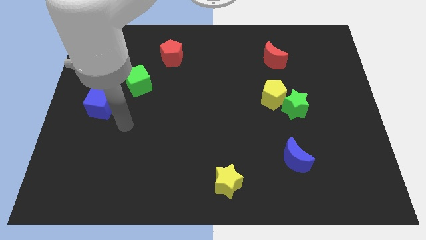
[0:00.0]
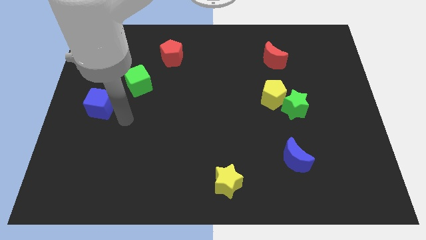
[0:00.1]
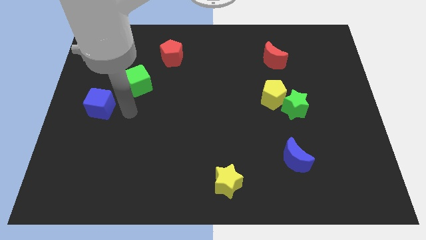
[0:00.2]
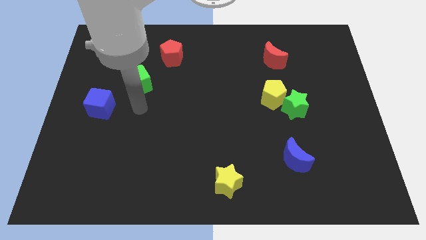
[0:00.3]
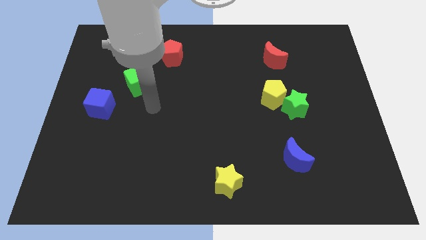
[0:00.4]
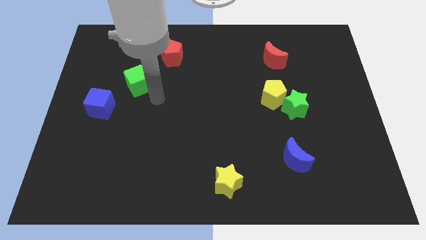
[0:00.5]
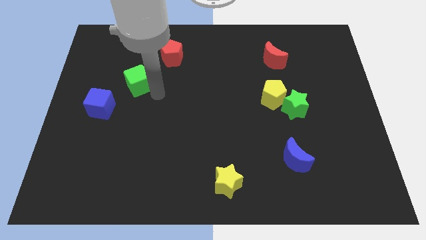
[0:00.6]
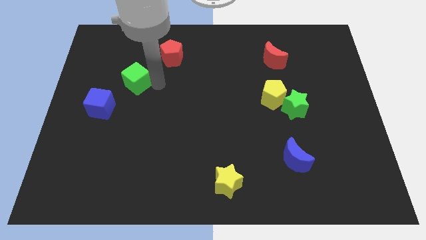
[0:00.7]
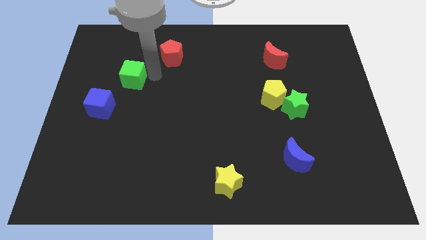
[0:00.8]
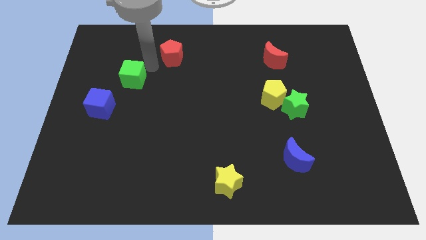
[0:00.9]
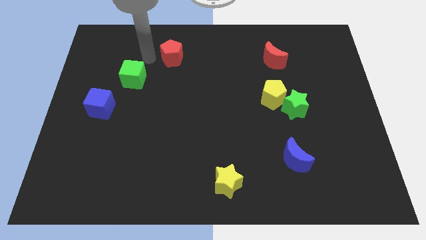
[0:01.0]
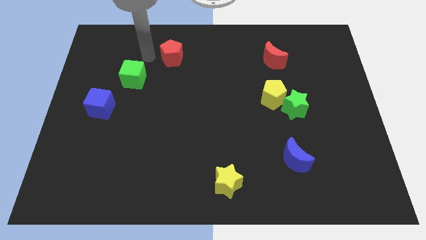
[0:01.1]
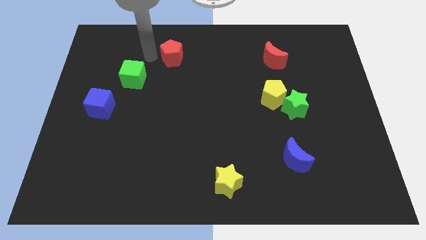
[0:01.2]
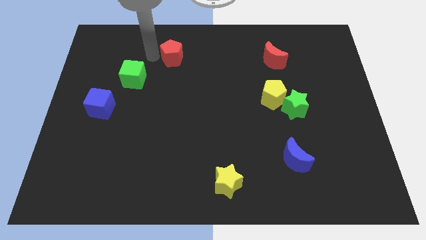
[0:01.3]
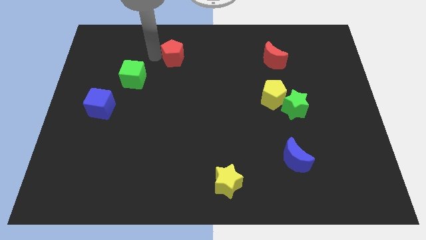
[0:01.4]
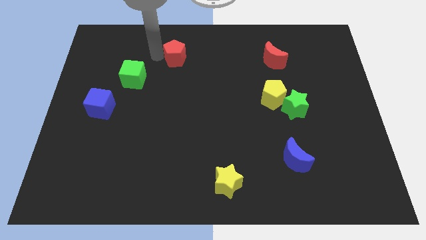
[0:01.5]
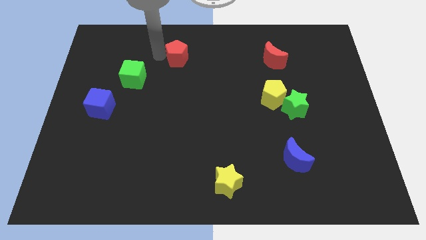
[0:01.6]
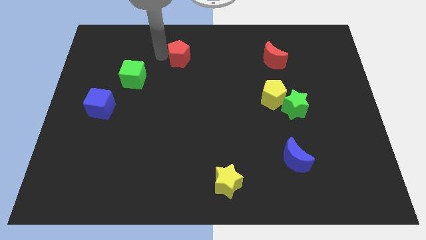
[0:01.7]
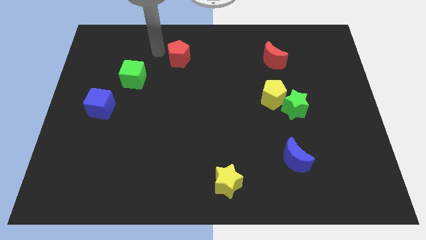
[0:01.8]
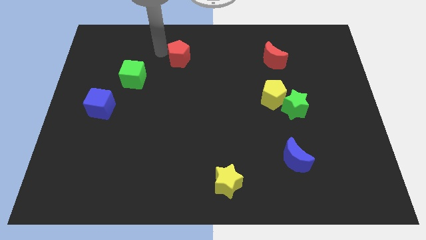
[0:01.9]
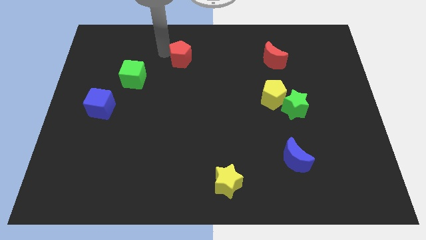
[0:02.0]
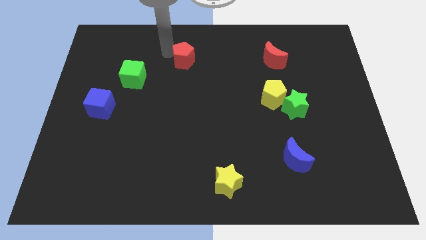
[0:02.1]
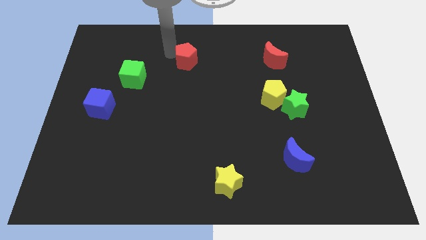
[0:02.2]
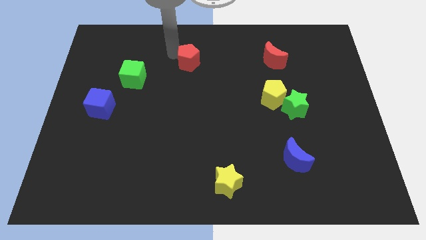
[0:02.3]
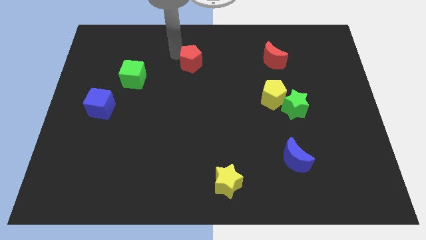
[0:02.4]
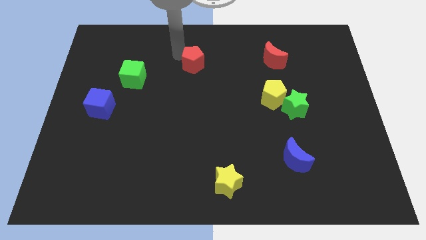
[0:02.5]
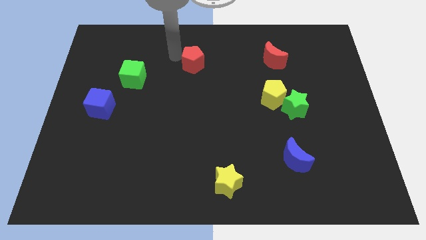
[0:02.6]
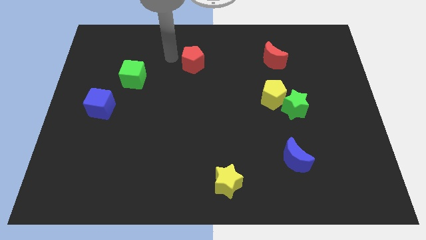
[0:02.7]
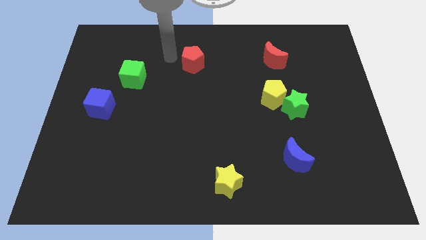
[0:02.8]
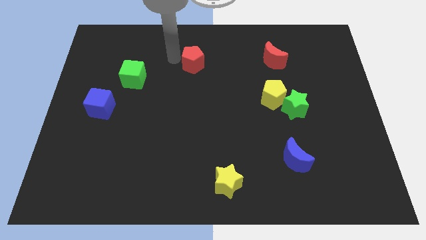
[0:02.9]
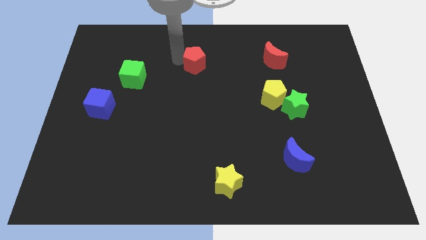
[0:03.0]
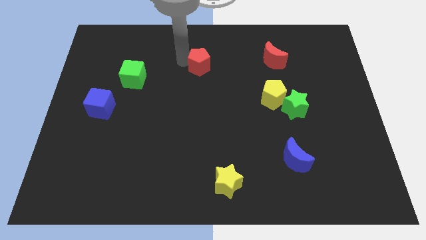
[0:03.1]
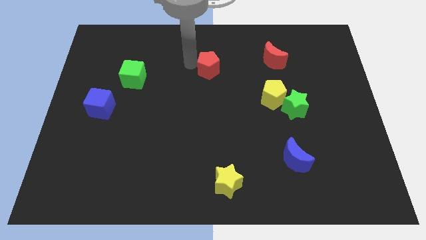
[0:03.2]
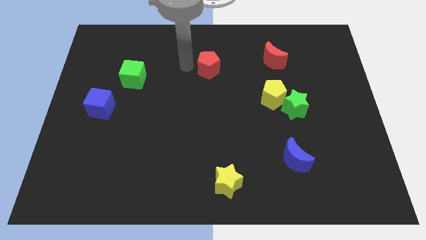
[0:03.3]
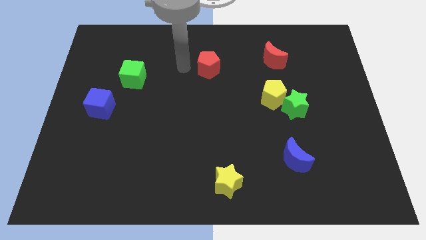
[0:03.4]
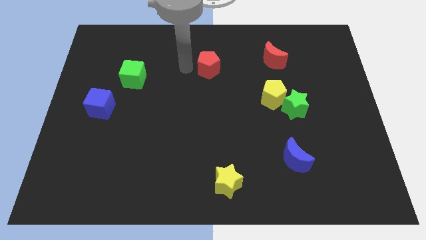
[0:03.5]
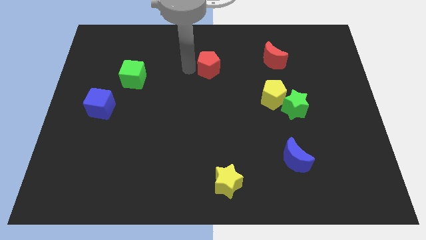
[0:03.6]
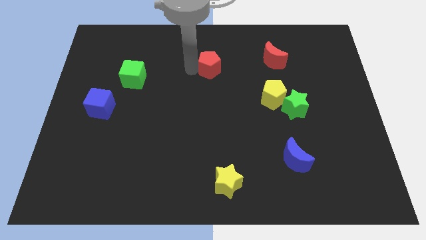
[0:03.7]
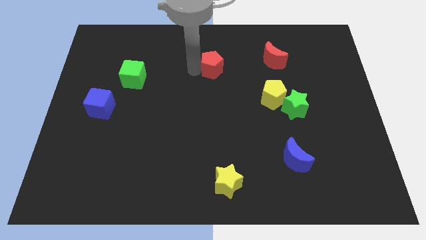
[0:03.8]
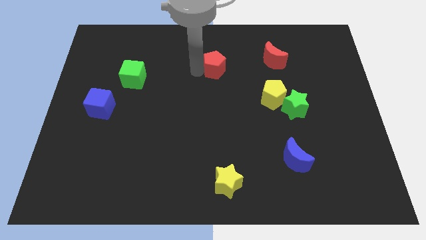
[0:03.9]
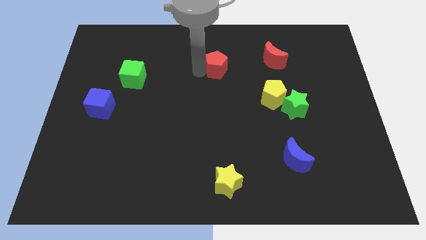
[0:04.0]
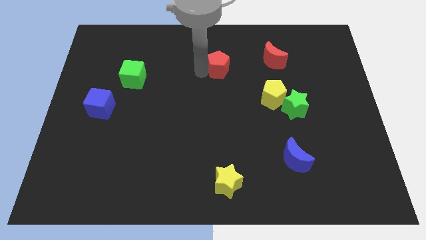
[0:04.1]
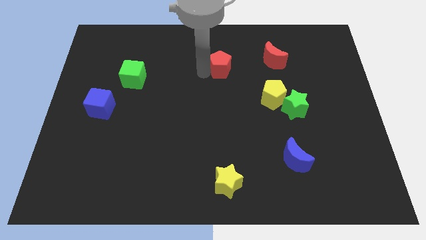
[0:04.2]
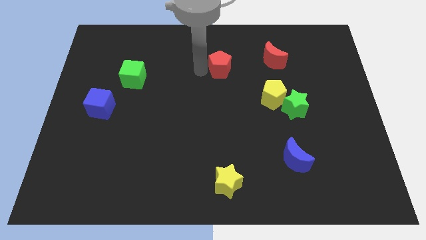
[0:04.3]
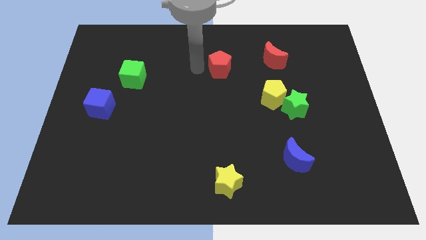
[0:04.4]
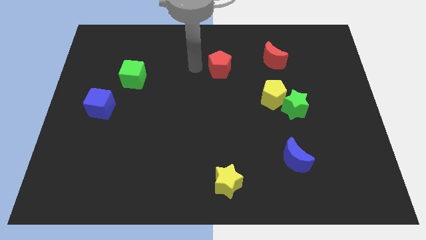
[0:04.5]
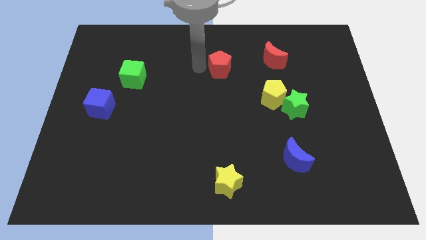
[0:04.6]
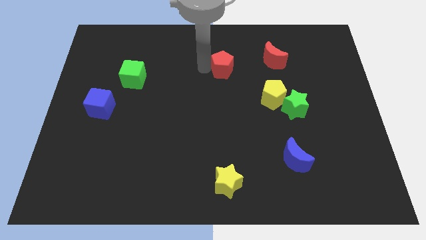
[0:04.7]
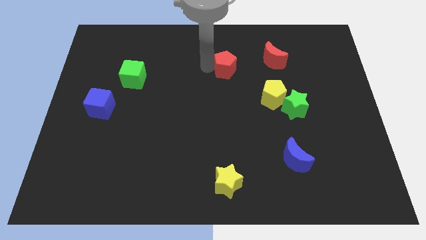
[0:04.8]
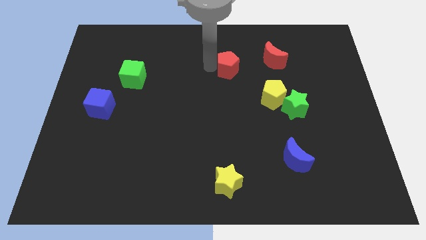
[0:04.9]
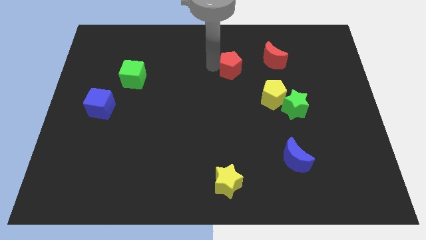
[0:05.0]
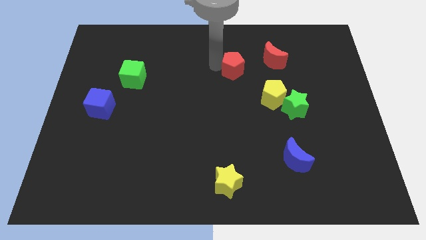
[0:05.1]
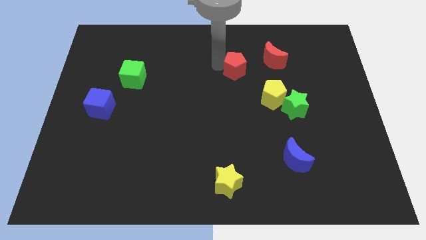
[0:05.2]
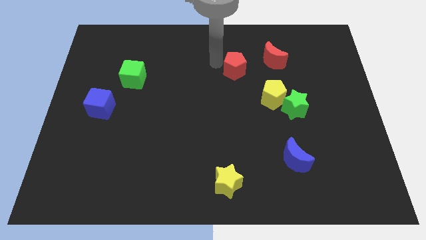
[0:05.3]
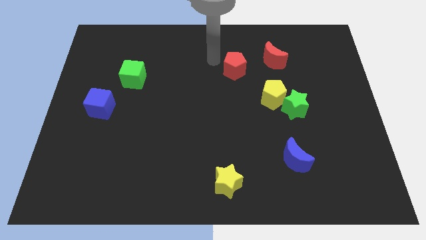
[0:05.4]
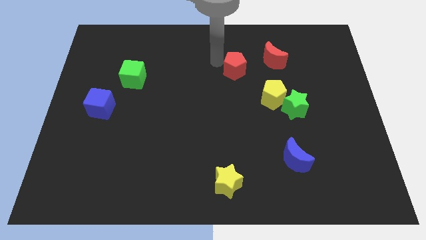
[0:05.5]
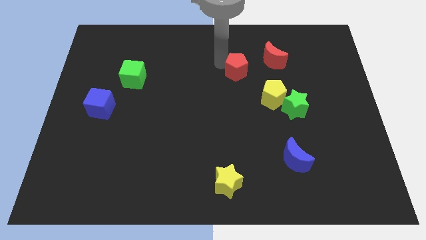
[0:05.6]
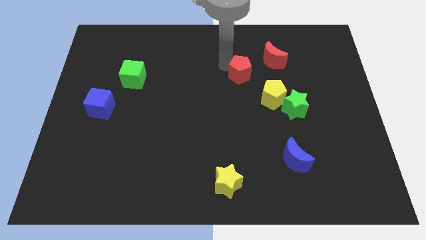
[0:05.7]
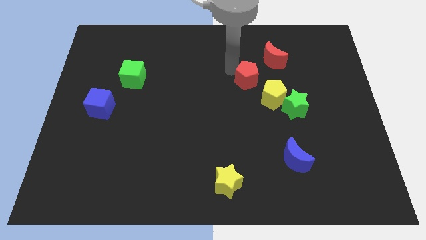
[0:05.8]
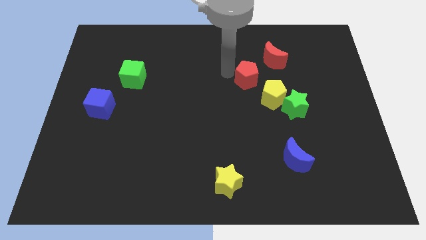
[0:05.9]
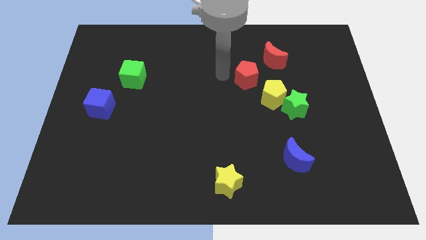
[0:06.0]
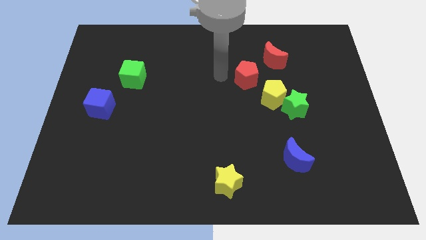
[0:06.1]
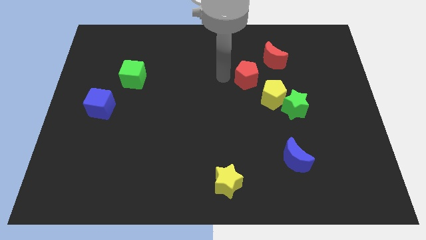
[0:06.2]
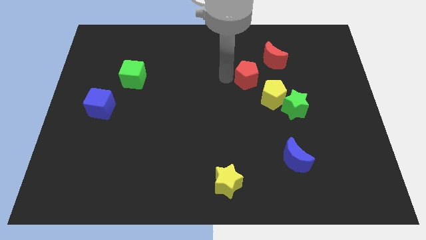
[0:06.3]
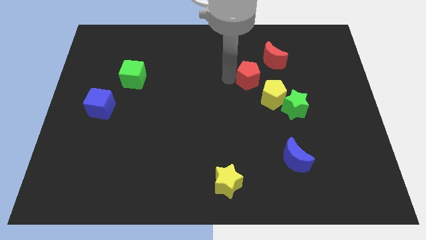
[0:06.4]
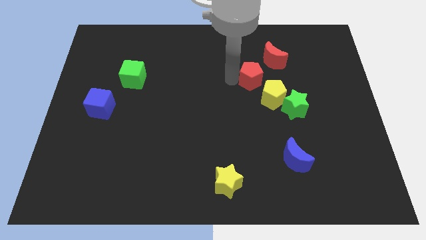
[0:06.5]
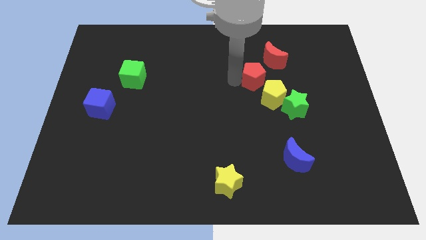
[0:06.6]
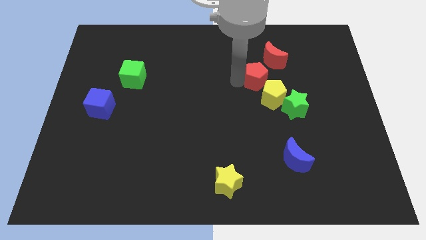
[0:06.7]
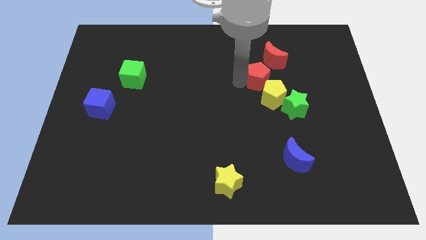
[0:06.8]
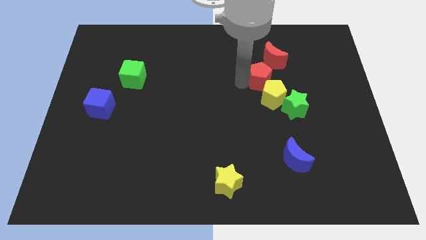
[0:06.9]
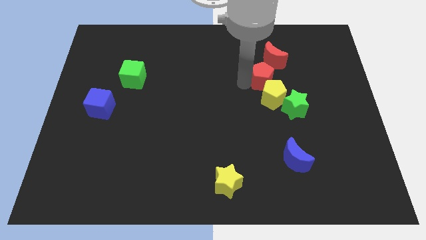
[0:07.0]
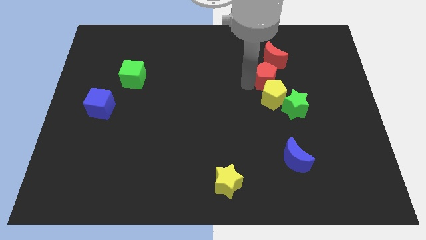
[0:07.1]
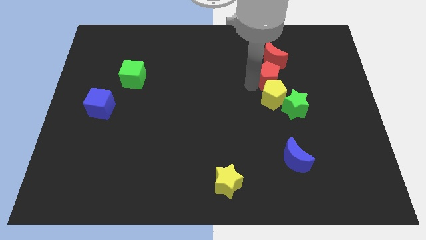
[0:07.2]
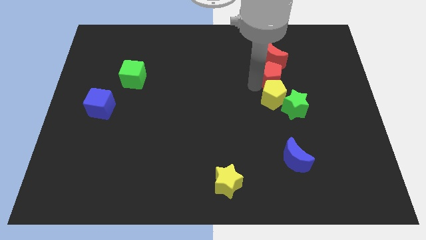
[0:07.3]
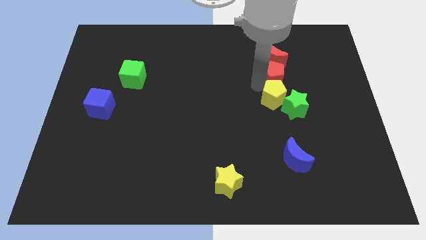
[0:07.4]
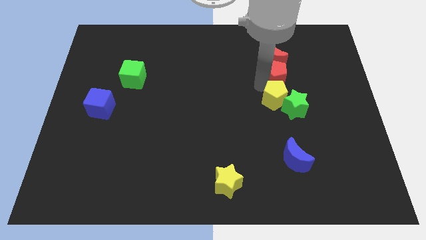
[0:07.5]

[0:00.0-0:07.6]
move the red pentagon to the bottom right side of the red moon

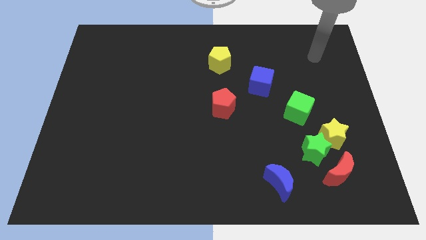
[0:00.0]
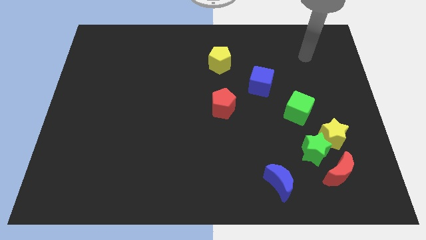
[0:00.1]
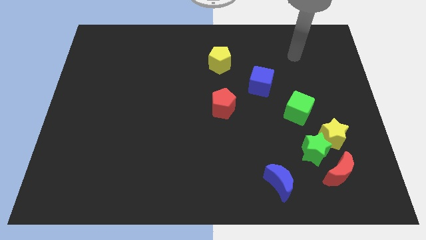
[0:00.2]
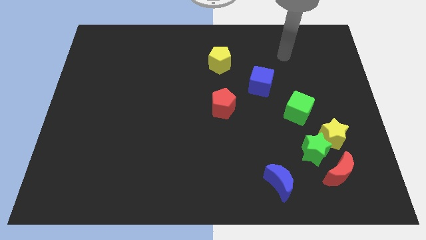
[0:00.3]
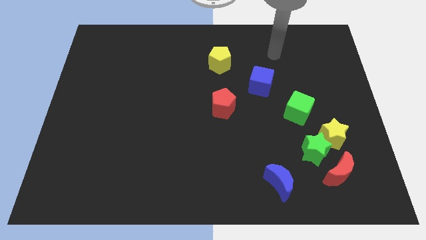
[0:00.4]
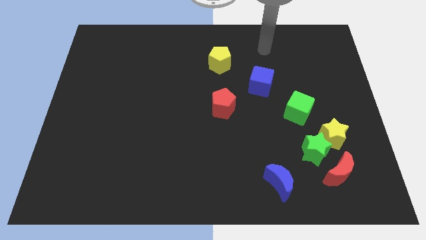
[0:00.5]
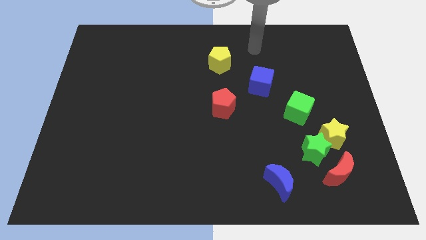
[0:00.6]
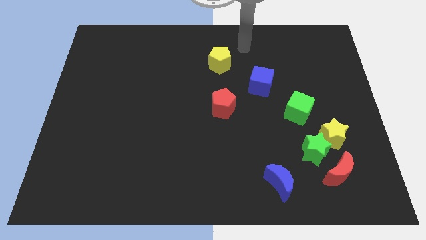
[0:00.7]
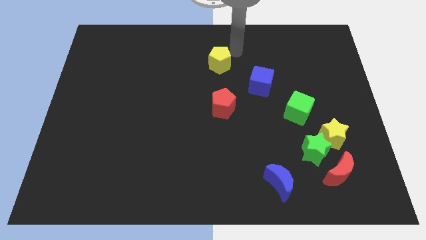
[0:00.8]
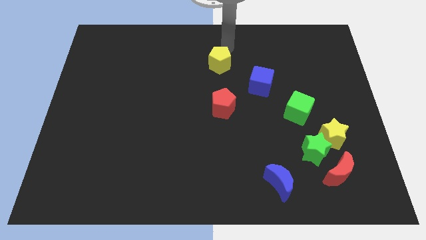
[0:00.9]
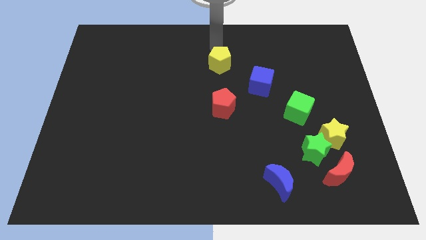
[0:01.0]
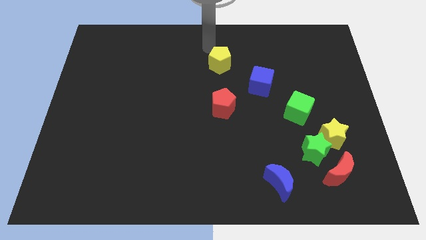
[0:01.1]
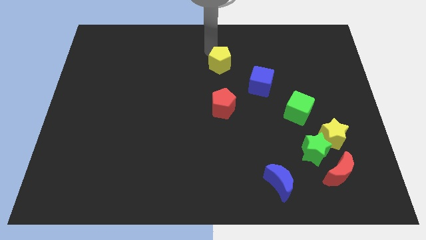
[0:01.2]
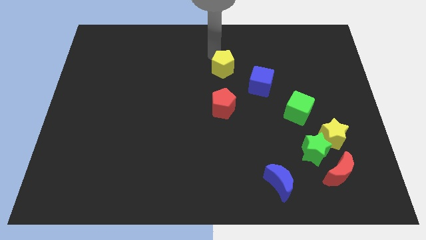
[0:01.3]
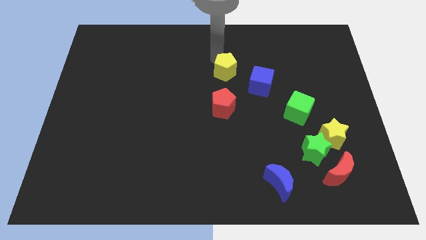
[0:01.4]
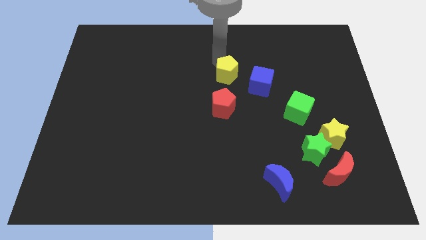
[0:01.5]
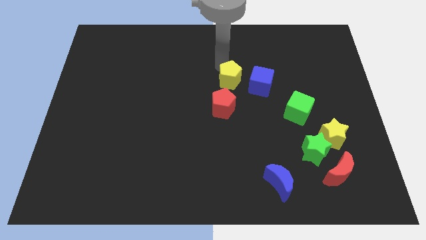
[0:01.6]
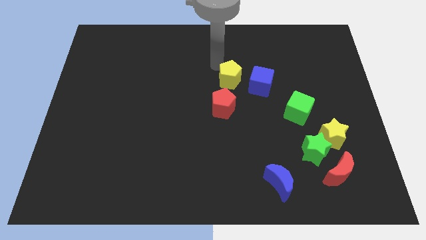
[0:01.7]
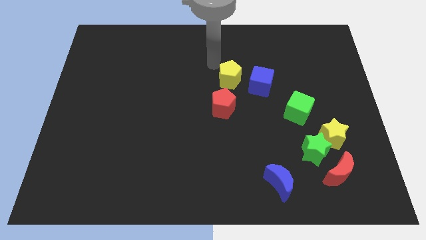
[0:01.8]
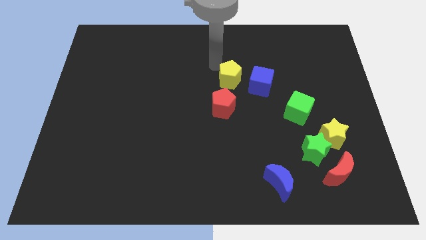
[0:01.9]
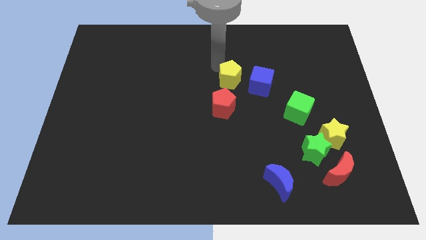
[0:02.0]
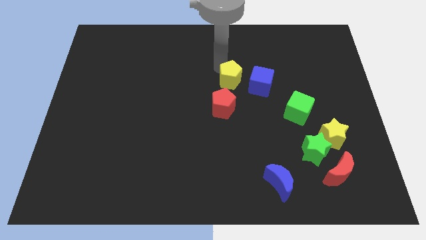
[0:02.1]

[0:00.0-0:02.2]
slide the yellow pentagon to the top right of the red pentagon
